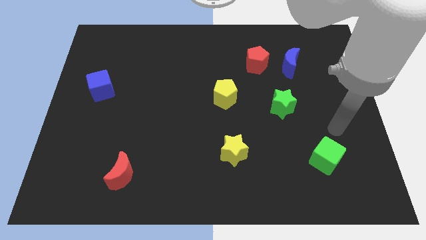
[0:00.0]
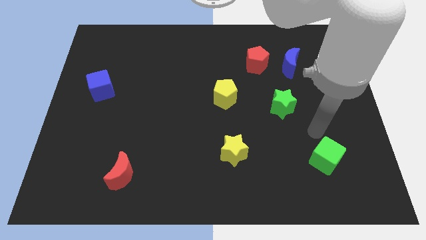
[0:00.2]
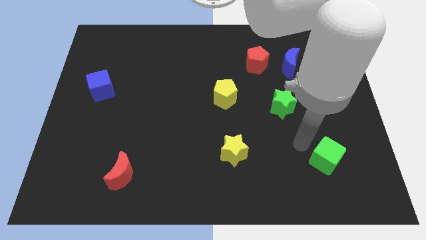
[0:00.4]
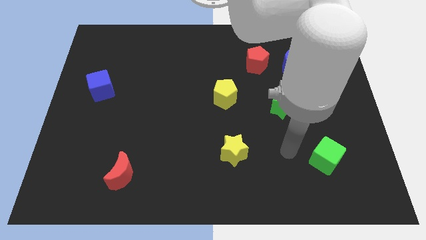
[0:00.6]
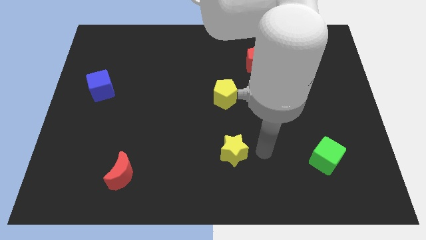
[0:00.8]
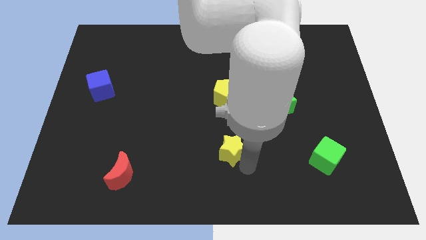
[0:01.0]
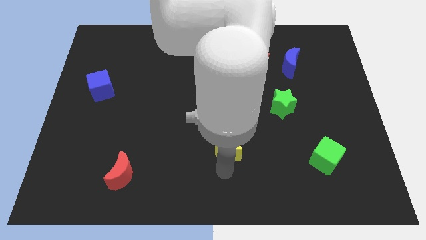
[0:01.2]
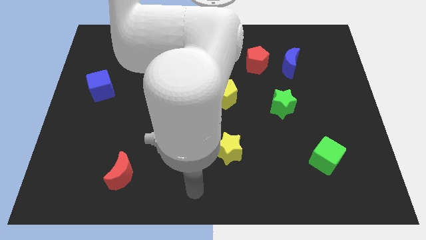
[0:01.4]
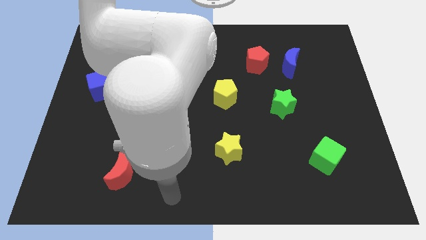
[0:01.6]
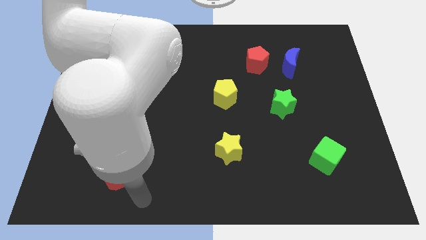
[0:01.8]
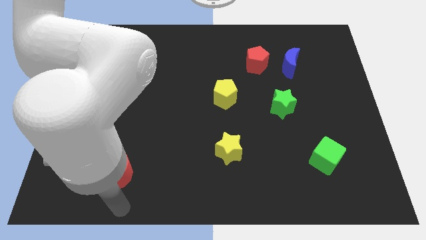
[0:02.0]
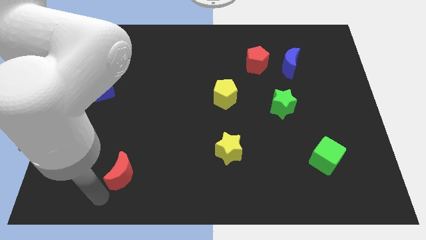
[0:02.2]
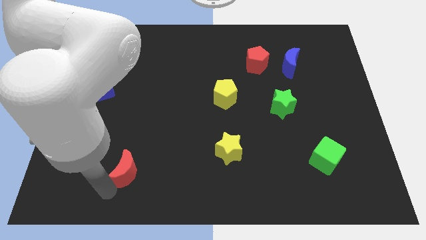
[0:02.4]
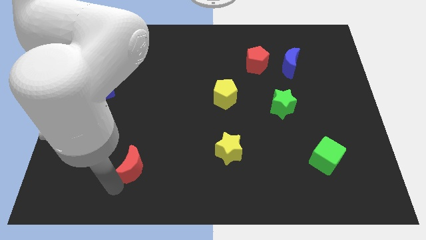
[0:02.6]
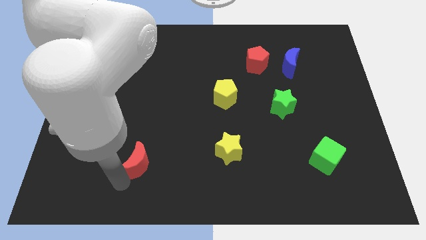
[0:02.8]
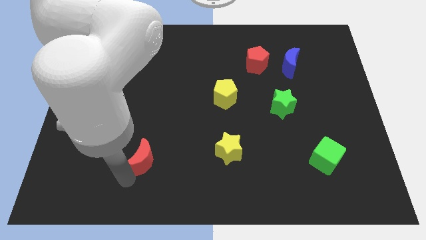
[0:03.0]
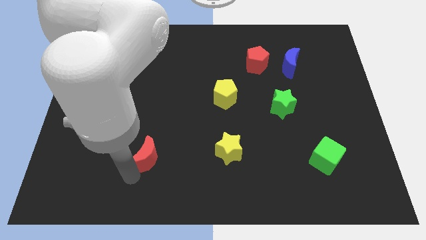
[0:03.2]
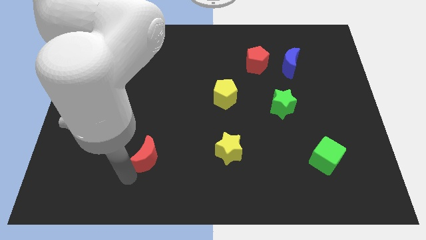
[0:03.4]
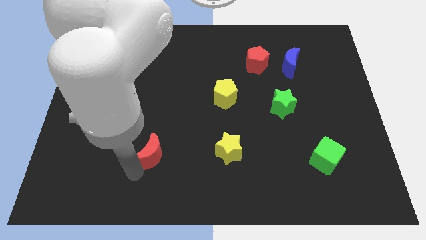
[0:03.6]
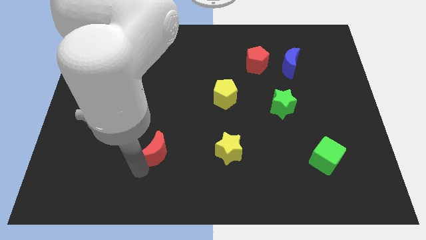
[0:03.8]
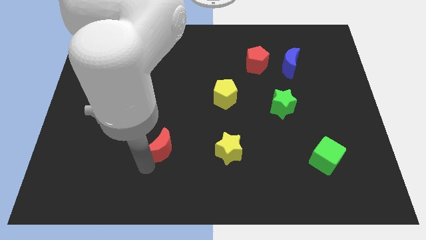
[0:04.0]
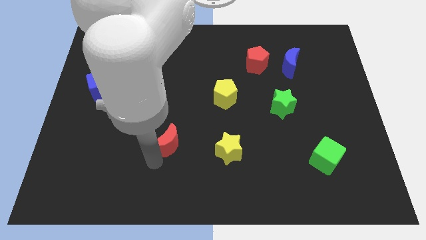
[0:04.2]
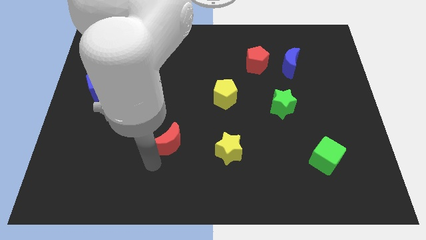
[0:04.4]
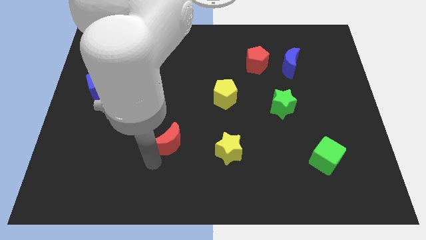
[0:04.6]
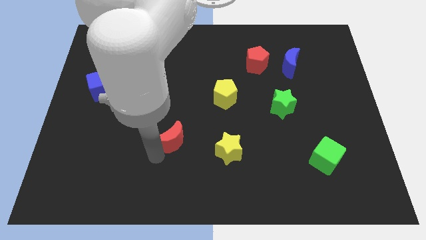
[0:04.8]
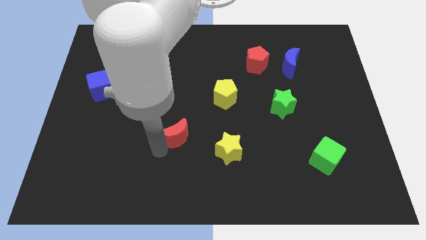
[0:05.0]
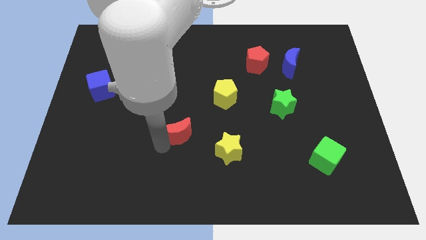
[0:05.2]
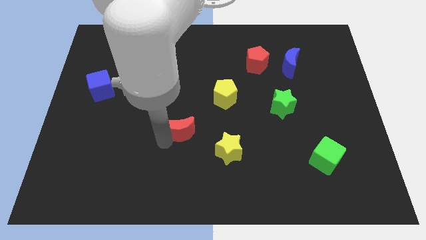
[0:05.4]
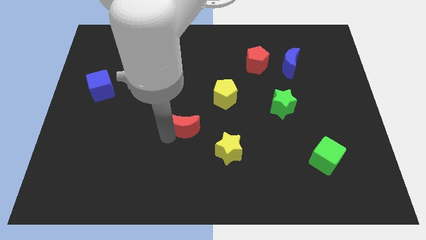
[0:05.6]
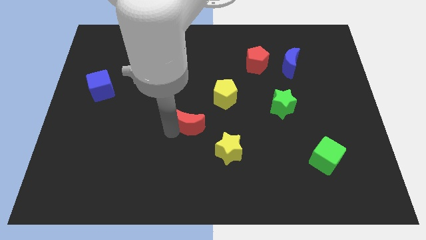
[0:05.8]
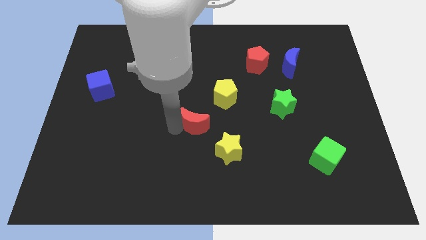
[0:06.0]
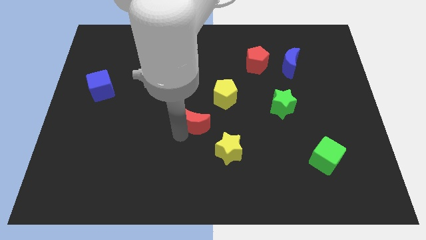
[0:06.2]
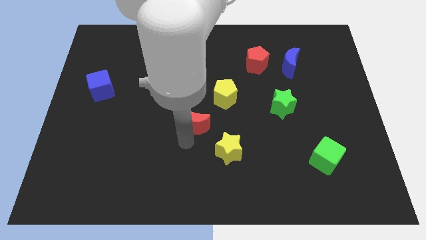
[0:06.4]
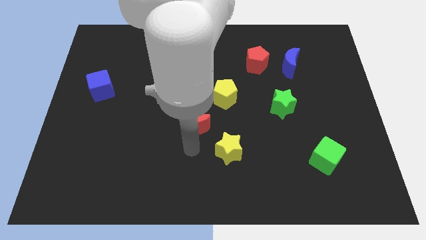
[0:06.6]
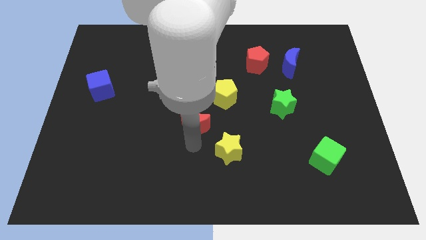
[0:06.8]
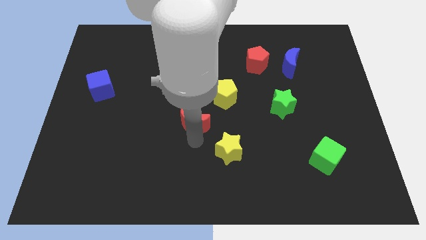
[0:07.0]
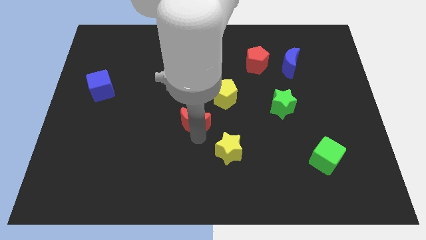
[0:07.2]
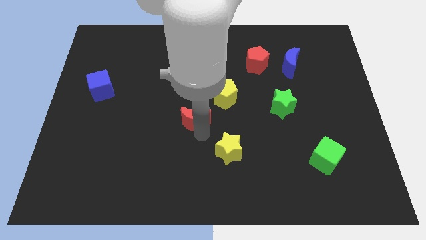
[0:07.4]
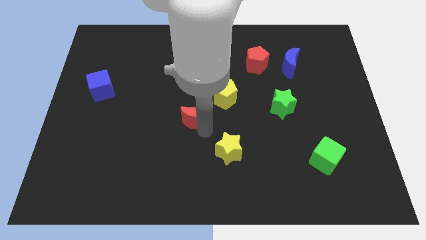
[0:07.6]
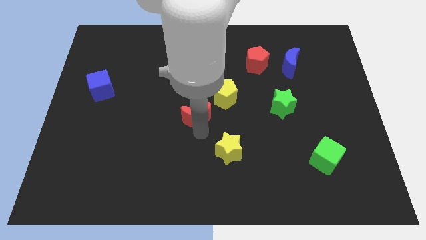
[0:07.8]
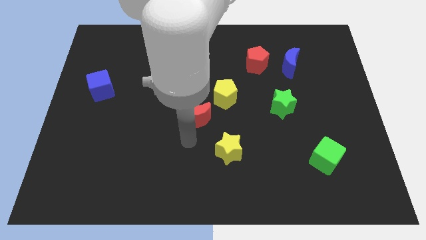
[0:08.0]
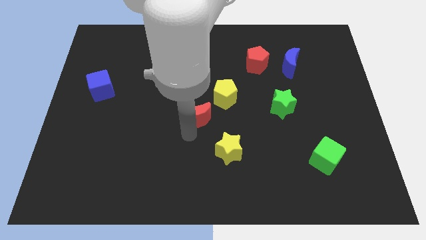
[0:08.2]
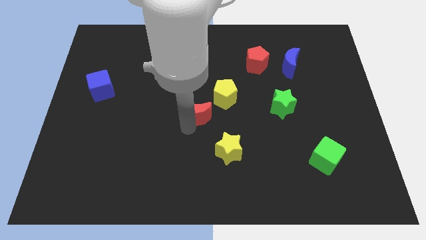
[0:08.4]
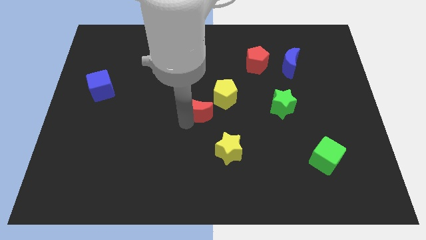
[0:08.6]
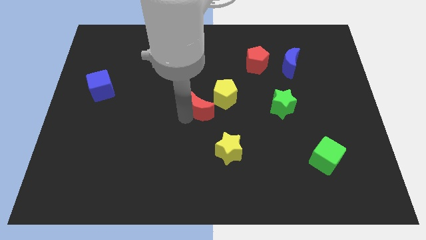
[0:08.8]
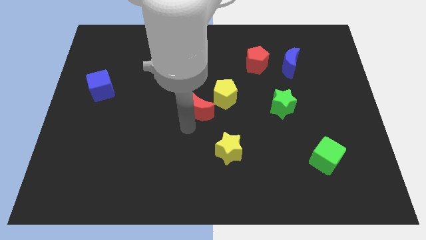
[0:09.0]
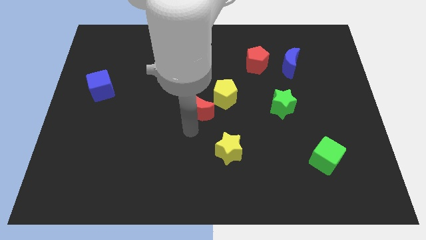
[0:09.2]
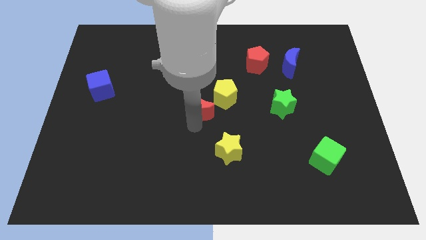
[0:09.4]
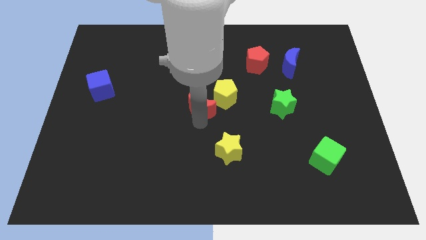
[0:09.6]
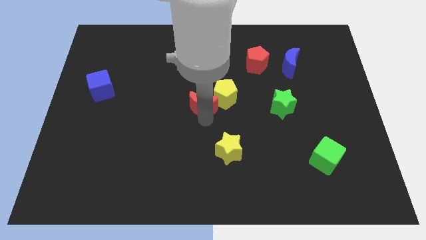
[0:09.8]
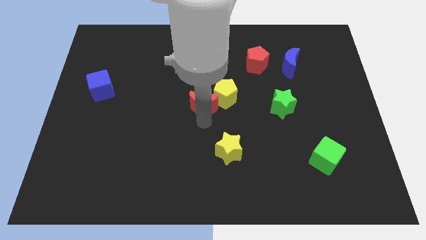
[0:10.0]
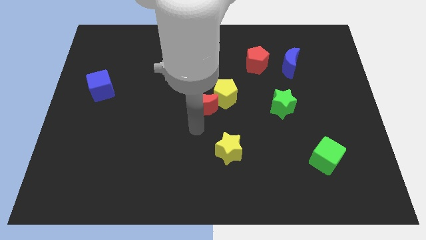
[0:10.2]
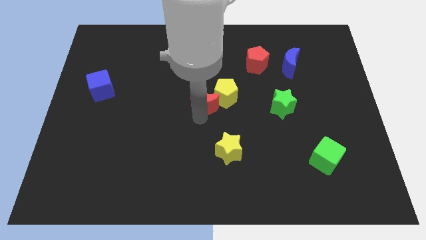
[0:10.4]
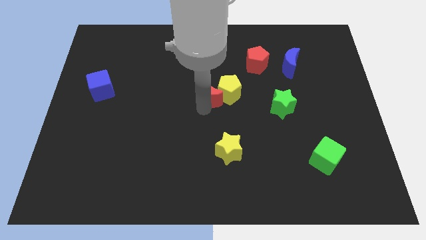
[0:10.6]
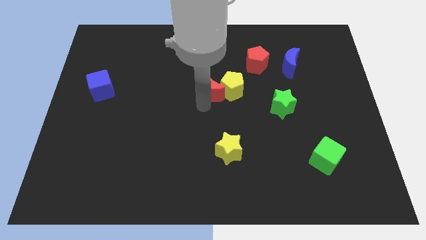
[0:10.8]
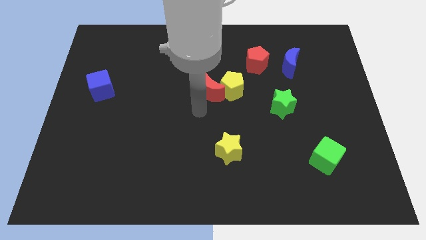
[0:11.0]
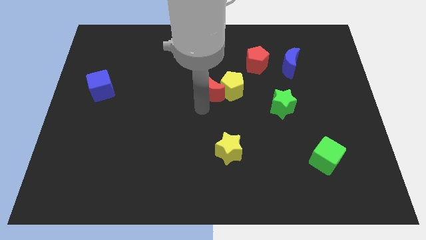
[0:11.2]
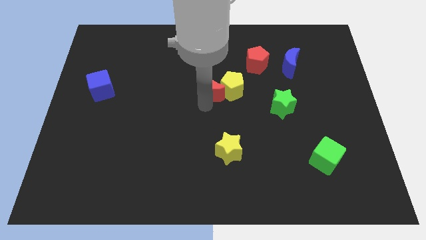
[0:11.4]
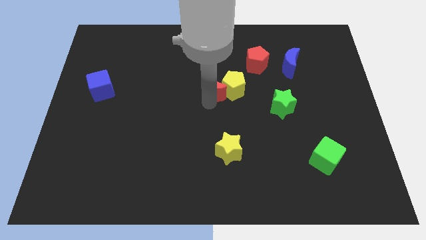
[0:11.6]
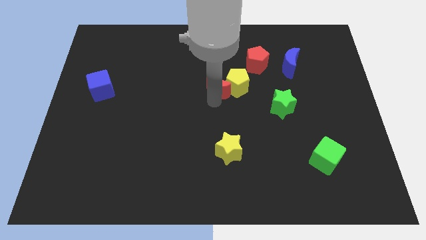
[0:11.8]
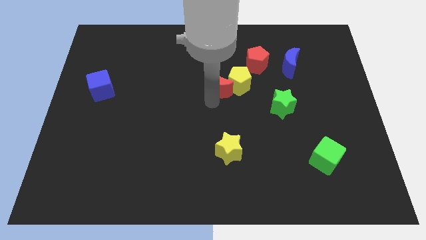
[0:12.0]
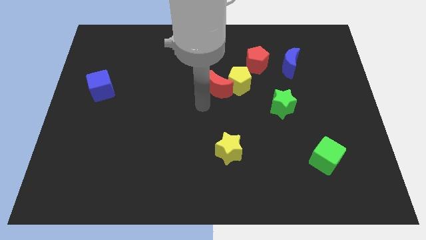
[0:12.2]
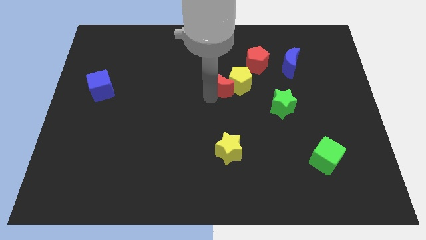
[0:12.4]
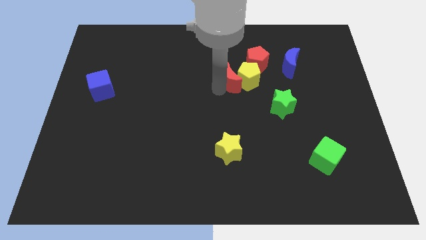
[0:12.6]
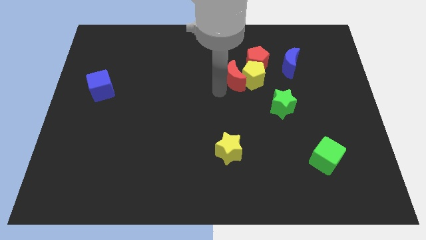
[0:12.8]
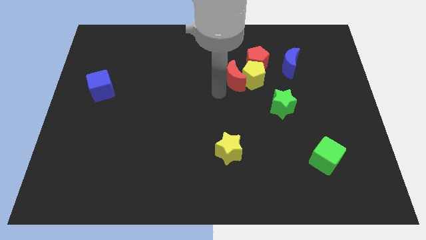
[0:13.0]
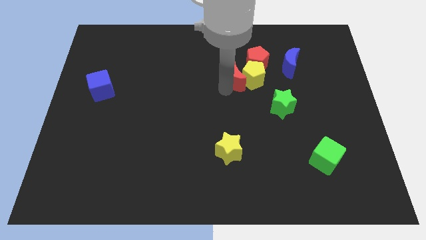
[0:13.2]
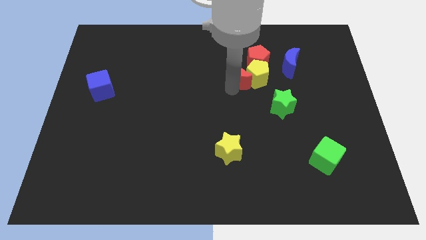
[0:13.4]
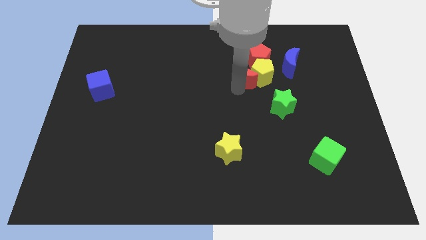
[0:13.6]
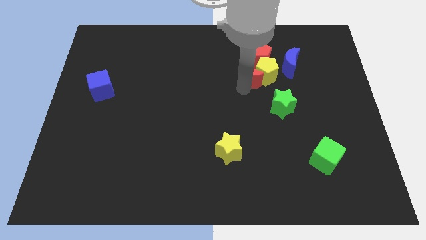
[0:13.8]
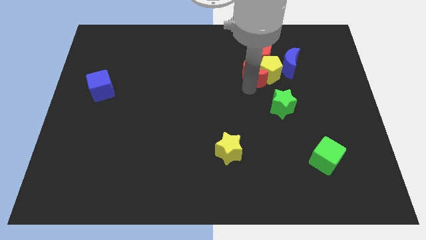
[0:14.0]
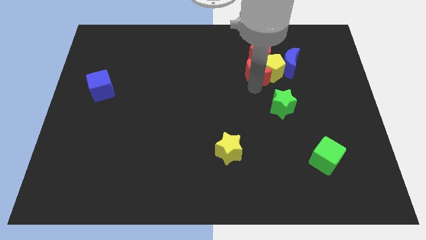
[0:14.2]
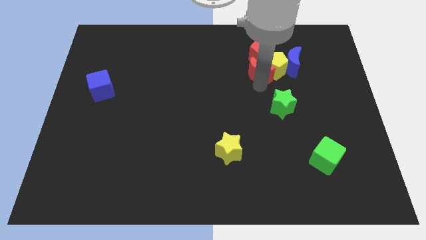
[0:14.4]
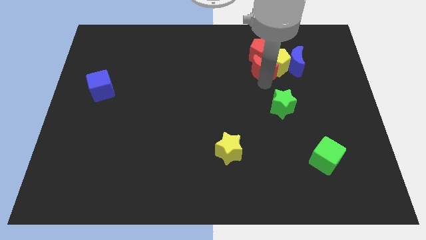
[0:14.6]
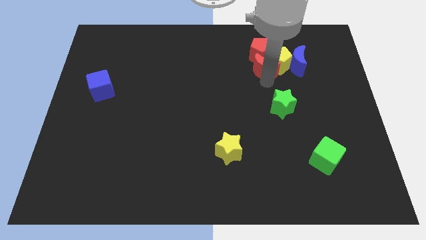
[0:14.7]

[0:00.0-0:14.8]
slide the red moon to the red pentagon

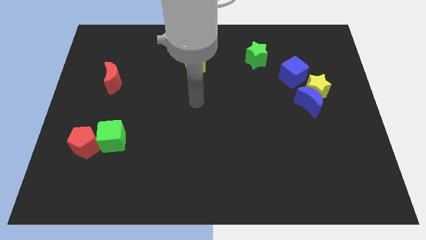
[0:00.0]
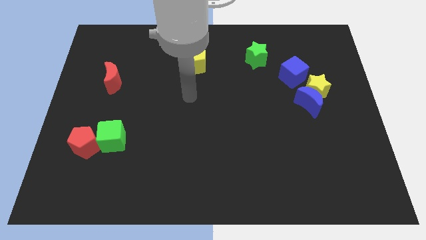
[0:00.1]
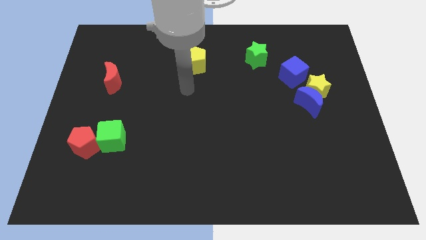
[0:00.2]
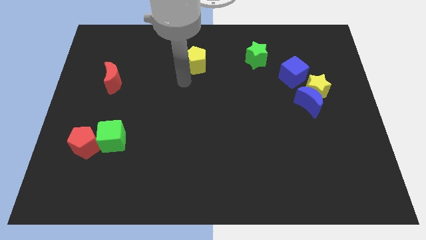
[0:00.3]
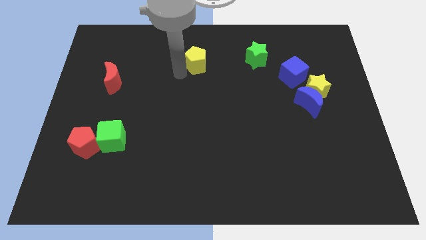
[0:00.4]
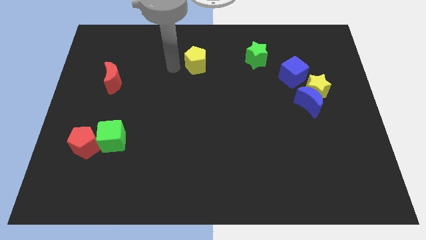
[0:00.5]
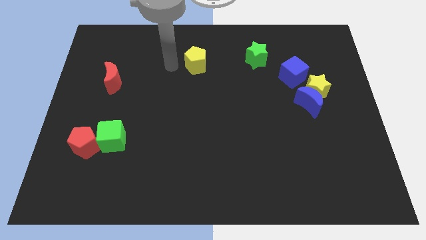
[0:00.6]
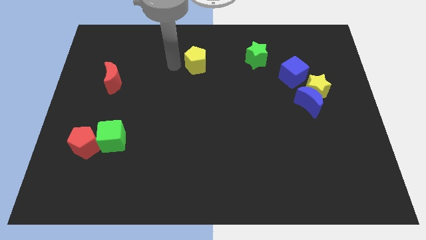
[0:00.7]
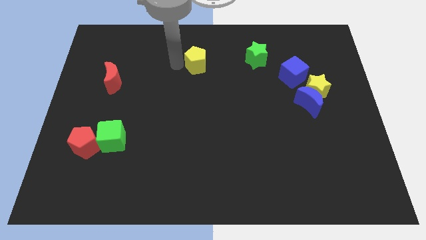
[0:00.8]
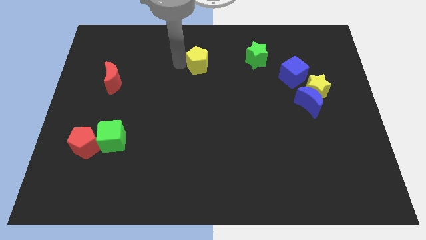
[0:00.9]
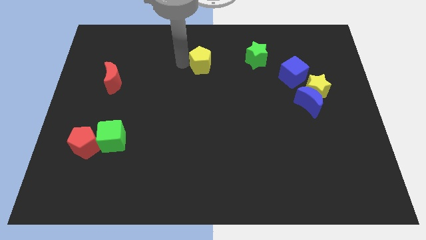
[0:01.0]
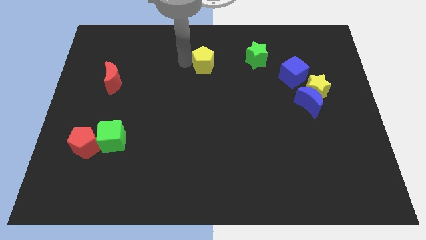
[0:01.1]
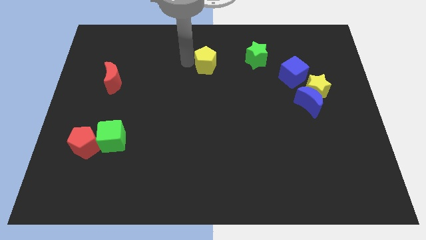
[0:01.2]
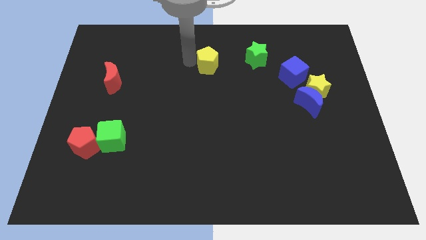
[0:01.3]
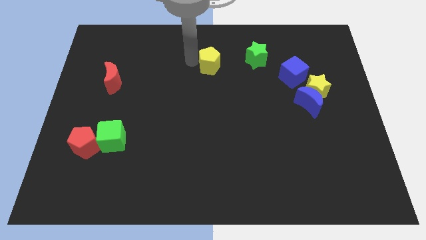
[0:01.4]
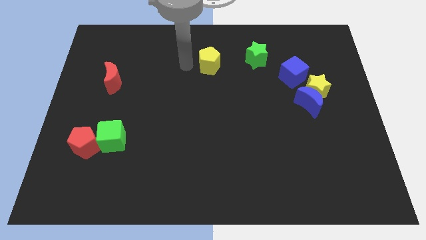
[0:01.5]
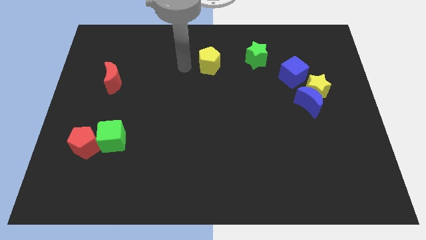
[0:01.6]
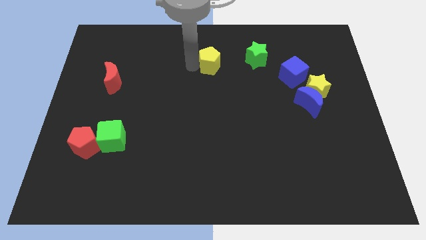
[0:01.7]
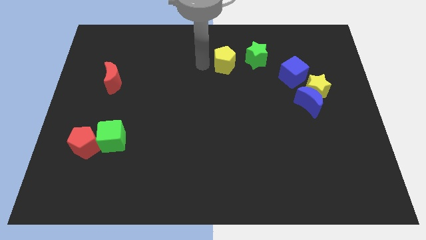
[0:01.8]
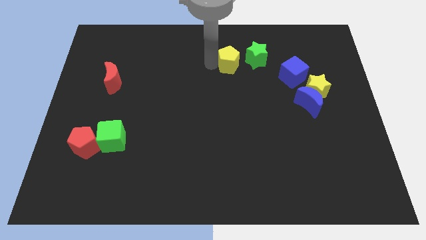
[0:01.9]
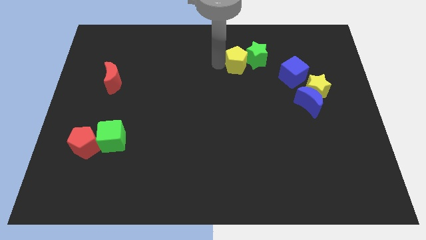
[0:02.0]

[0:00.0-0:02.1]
put the yellow pentagon close to the green star
